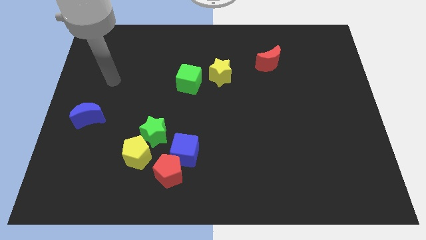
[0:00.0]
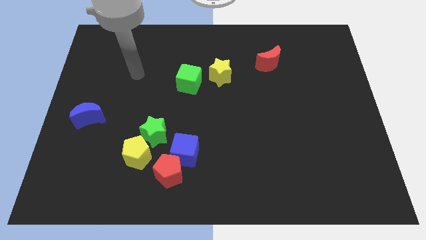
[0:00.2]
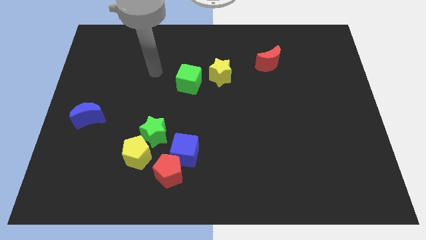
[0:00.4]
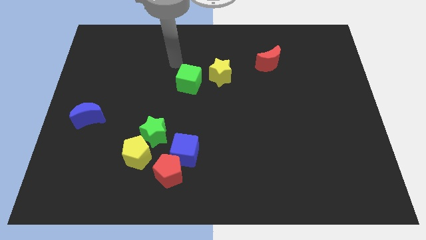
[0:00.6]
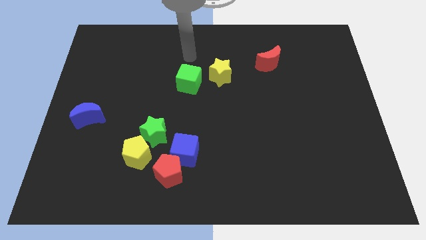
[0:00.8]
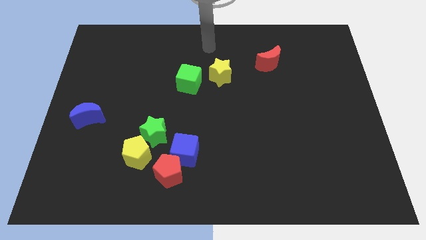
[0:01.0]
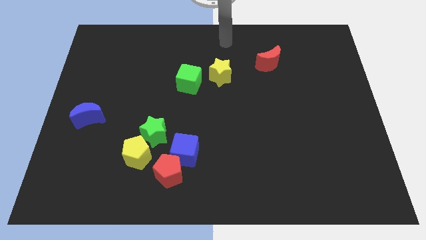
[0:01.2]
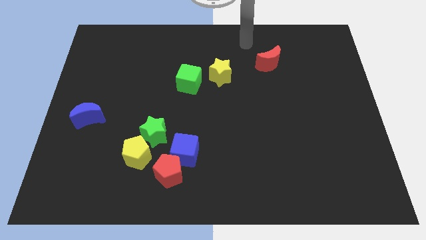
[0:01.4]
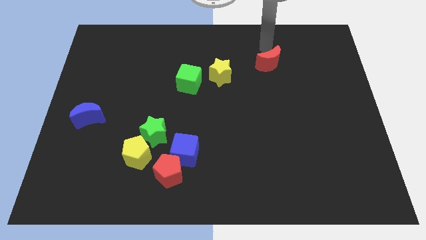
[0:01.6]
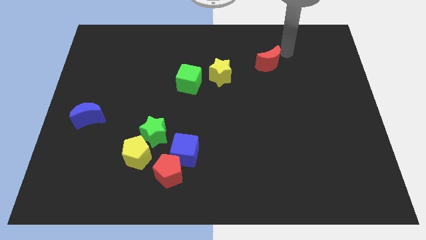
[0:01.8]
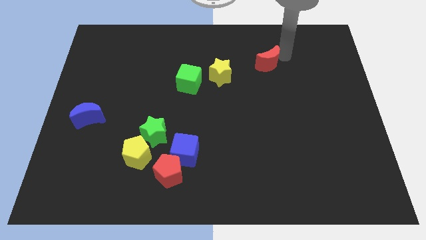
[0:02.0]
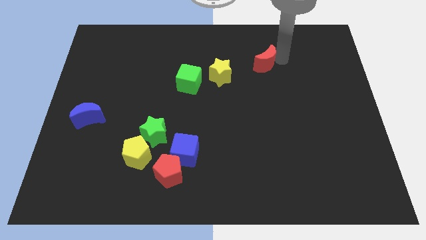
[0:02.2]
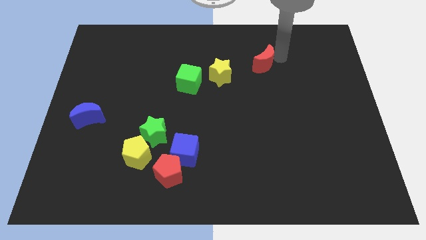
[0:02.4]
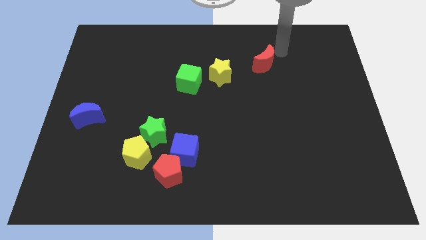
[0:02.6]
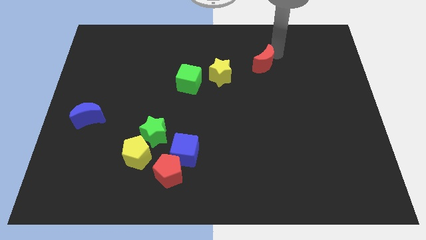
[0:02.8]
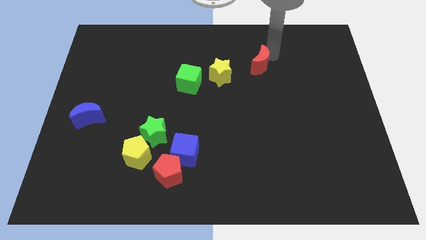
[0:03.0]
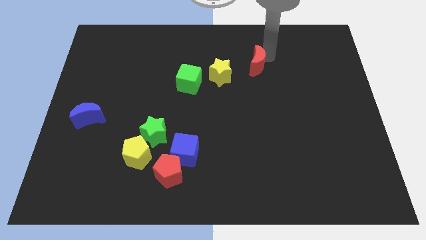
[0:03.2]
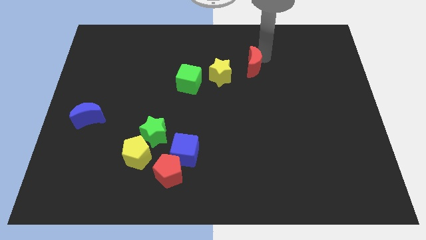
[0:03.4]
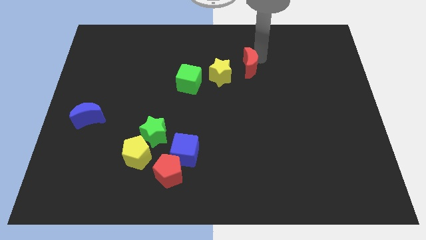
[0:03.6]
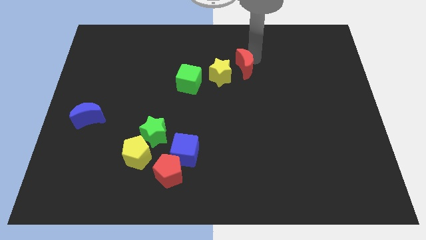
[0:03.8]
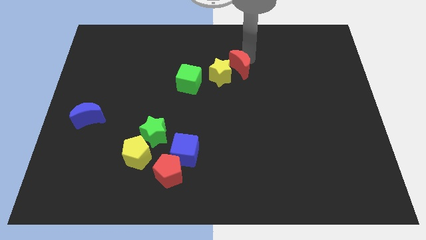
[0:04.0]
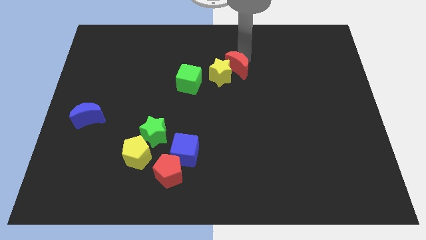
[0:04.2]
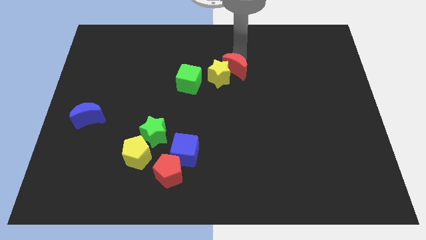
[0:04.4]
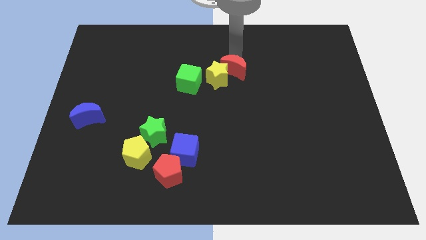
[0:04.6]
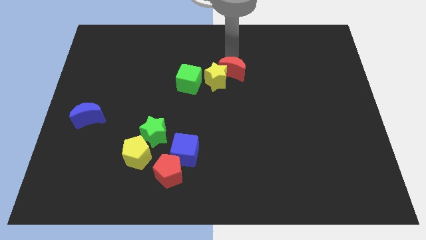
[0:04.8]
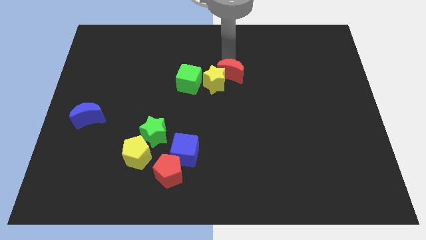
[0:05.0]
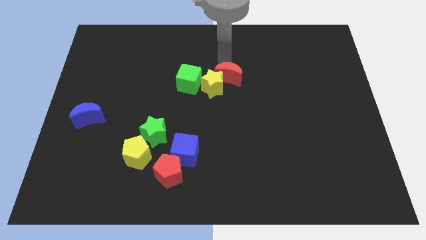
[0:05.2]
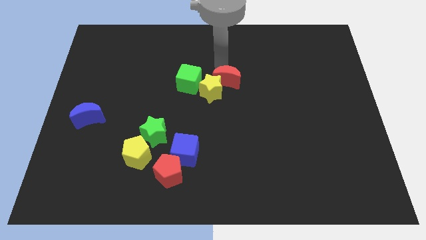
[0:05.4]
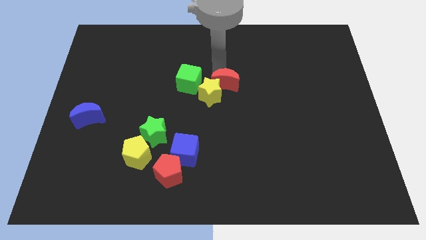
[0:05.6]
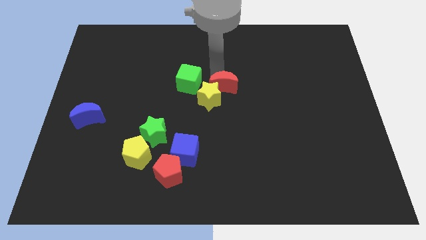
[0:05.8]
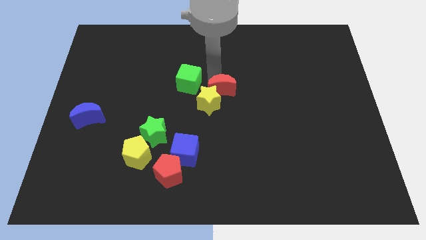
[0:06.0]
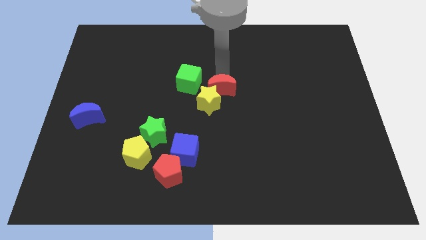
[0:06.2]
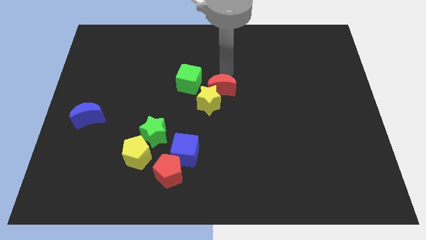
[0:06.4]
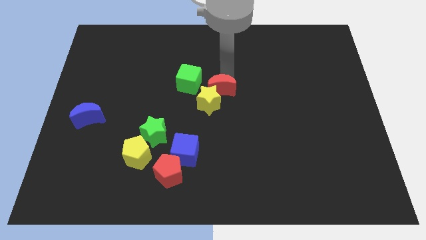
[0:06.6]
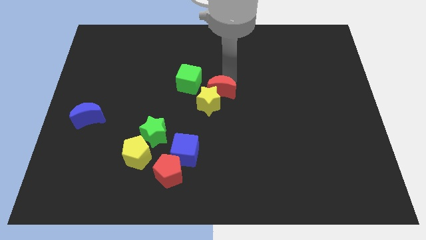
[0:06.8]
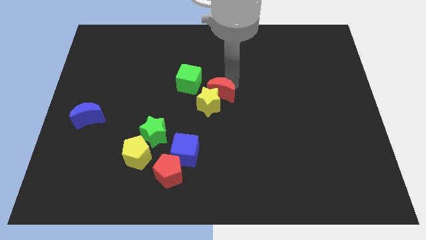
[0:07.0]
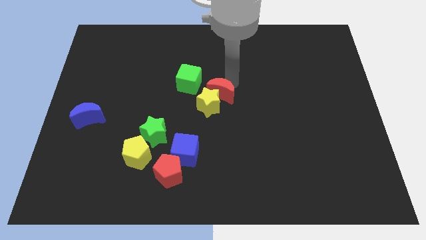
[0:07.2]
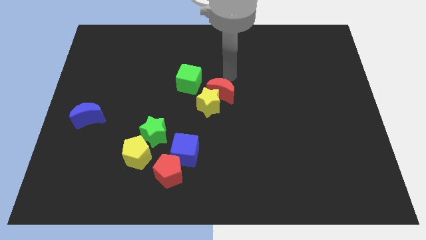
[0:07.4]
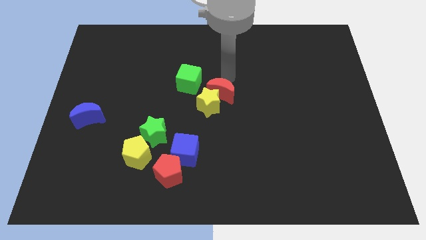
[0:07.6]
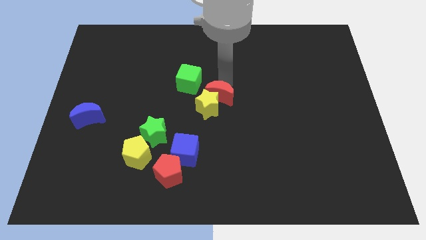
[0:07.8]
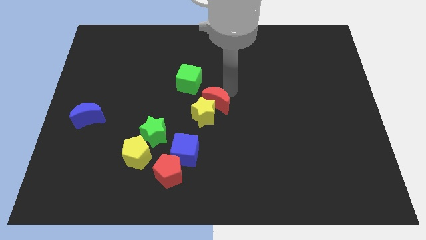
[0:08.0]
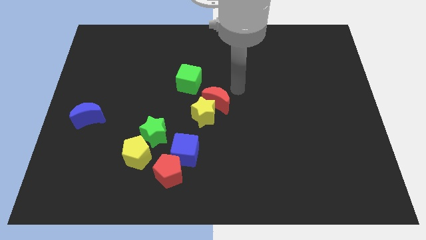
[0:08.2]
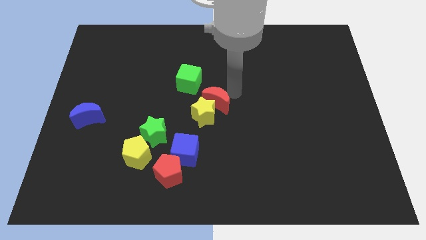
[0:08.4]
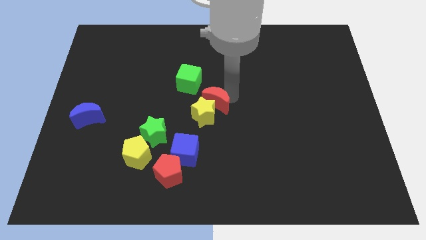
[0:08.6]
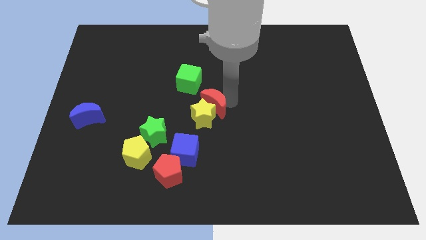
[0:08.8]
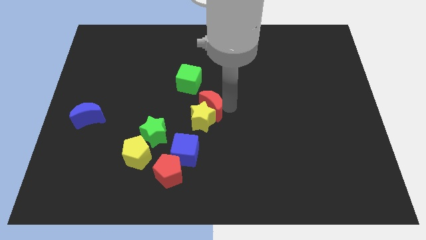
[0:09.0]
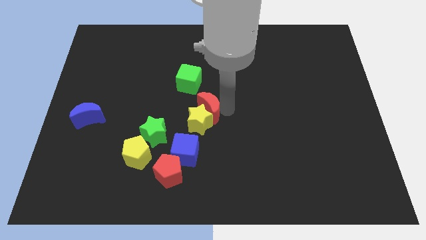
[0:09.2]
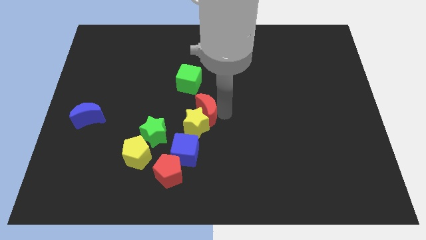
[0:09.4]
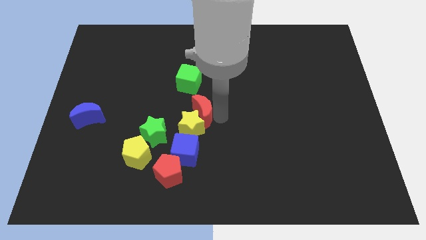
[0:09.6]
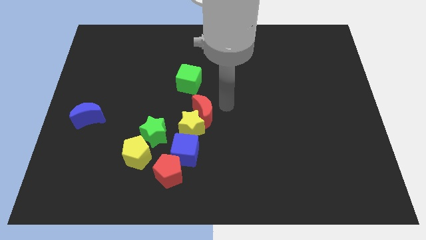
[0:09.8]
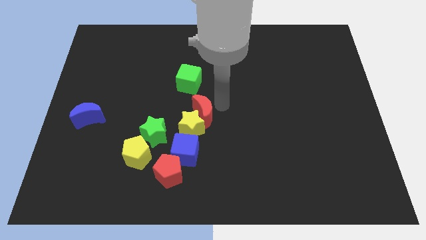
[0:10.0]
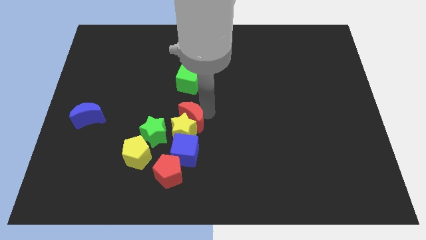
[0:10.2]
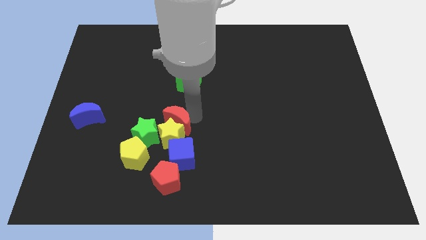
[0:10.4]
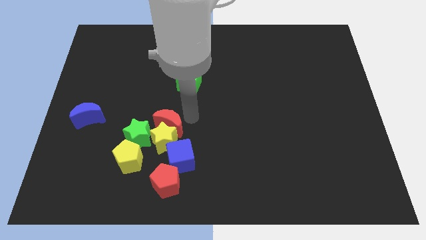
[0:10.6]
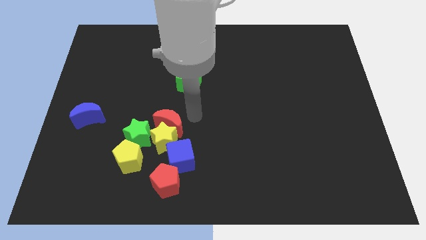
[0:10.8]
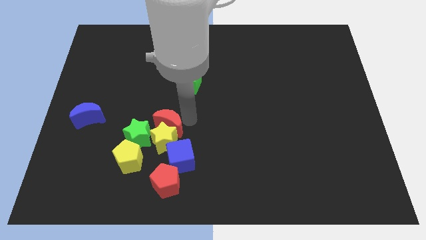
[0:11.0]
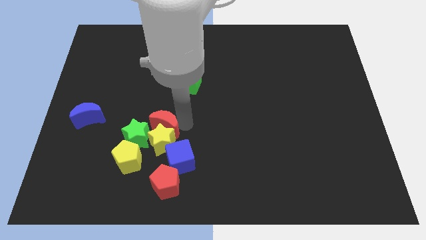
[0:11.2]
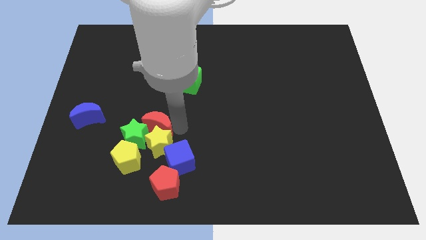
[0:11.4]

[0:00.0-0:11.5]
put the red moon to the green star
